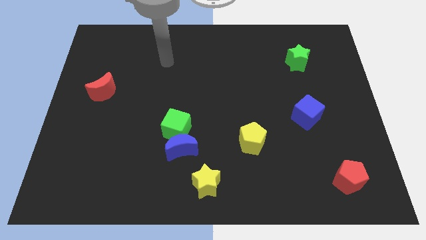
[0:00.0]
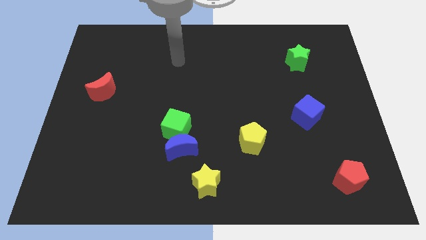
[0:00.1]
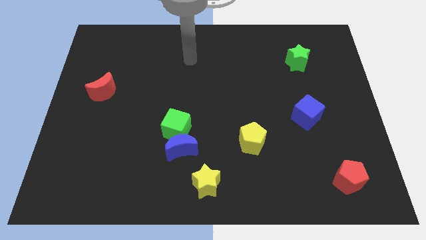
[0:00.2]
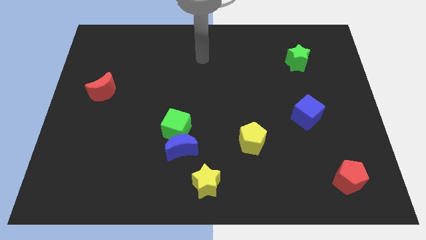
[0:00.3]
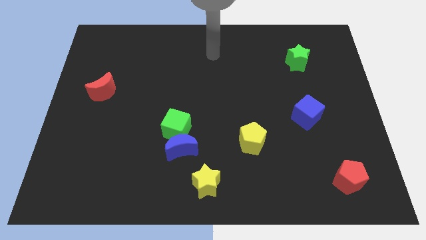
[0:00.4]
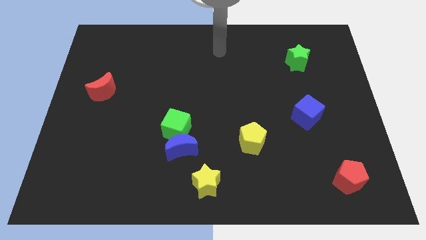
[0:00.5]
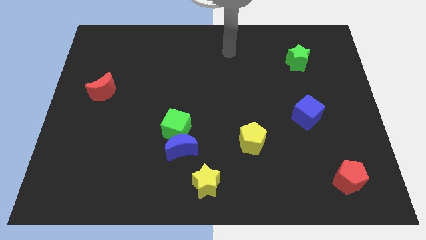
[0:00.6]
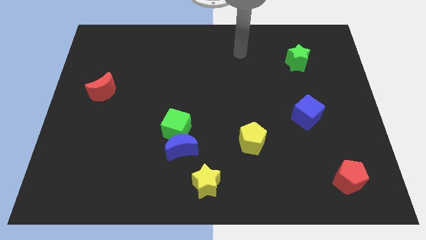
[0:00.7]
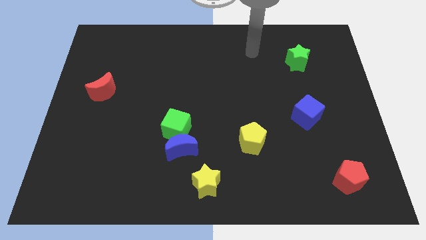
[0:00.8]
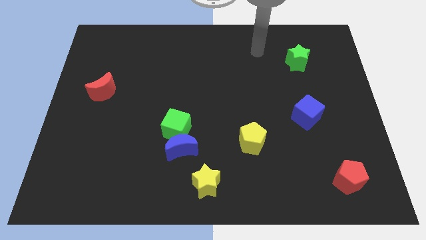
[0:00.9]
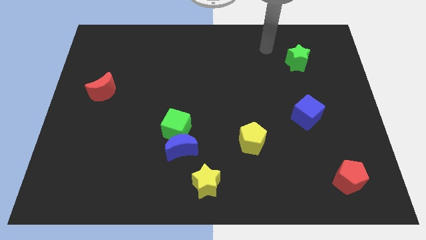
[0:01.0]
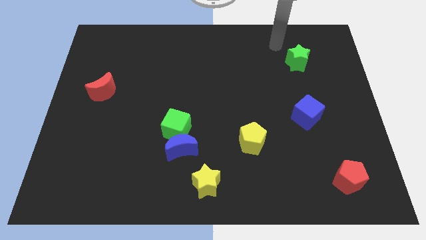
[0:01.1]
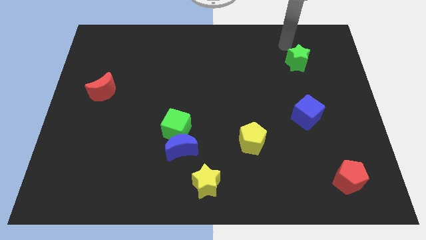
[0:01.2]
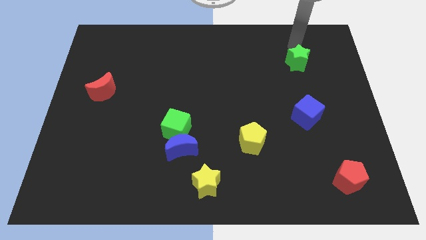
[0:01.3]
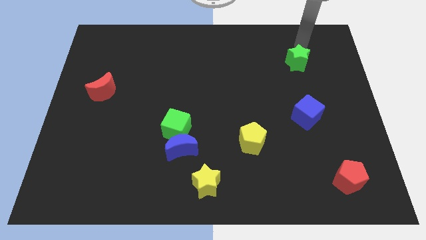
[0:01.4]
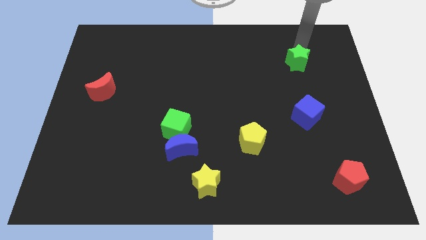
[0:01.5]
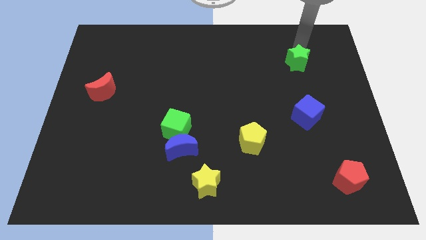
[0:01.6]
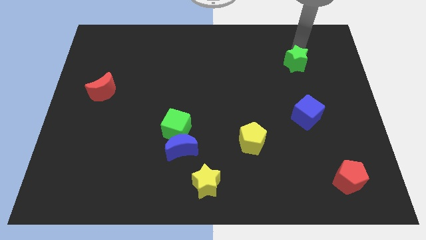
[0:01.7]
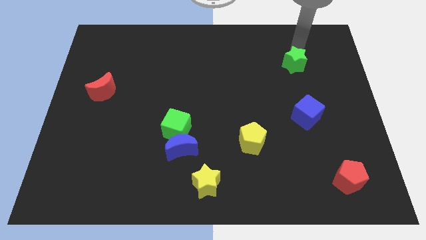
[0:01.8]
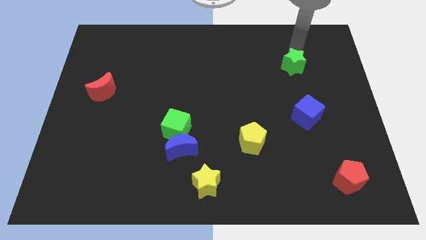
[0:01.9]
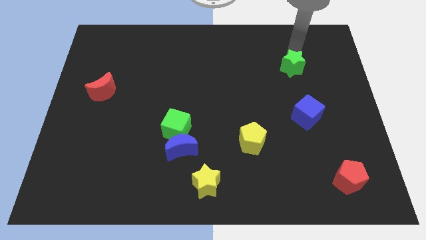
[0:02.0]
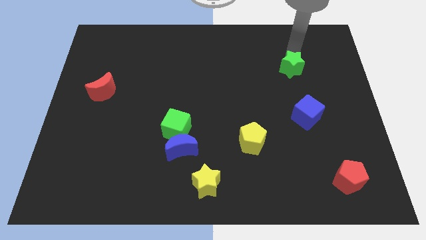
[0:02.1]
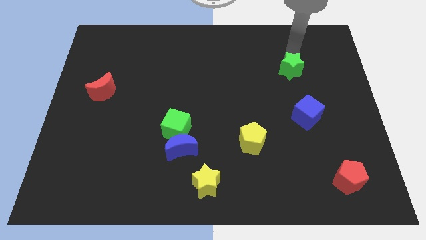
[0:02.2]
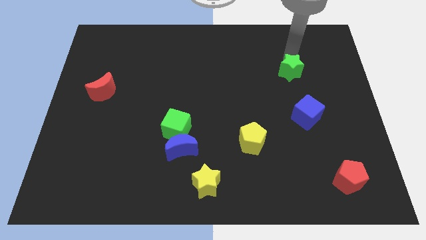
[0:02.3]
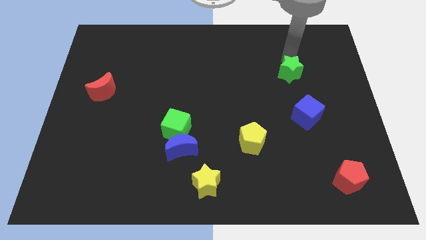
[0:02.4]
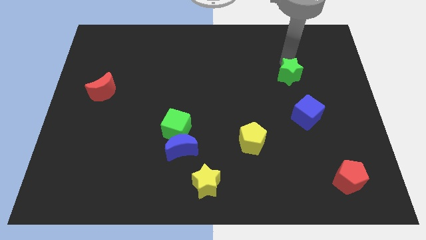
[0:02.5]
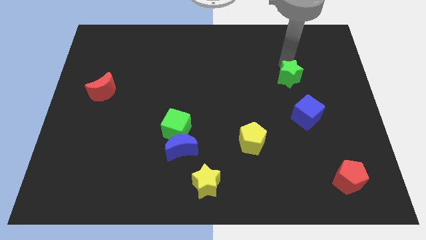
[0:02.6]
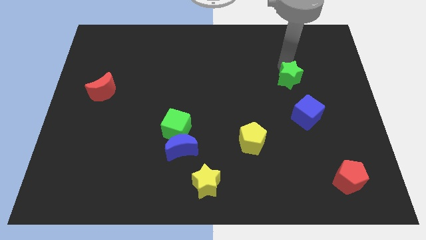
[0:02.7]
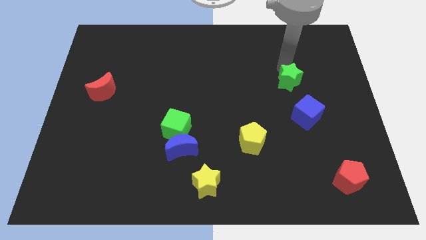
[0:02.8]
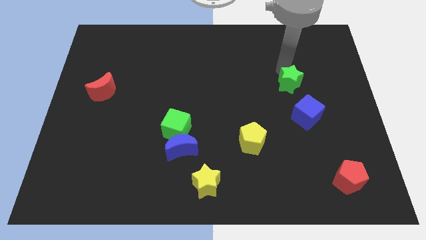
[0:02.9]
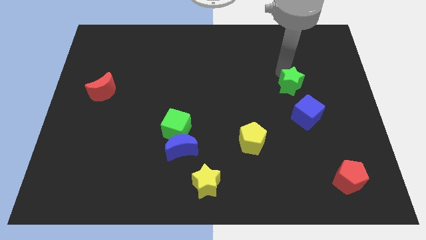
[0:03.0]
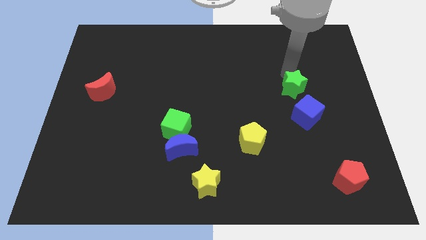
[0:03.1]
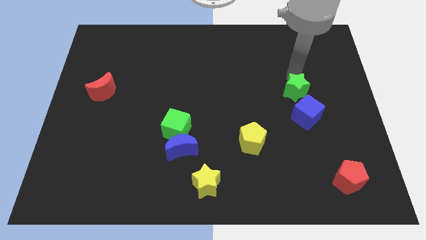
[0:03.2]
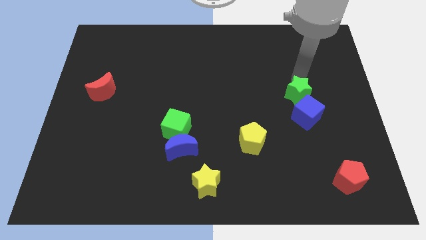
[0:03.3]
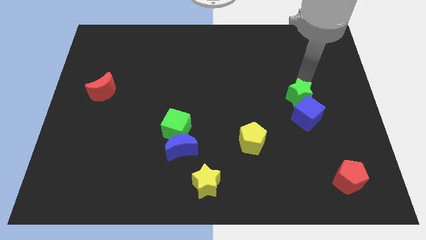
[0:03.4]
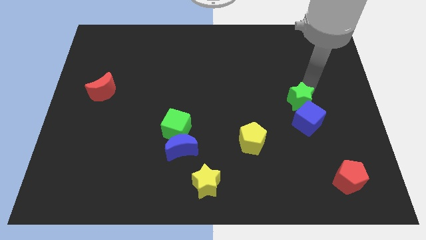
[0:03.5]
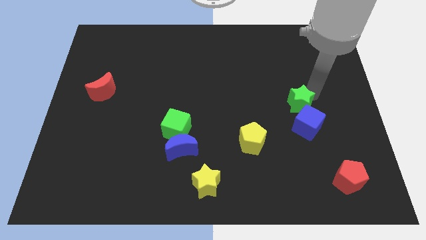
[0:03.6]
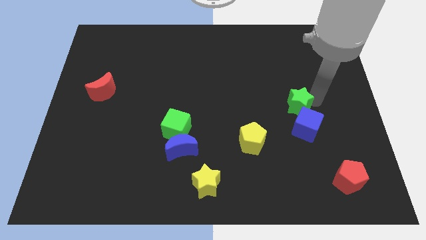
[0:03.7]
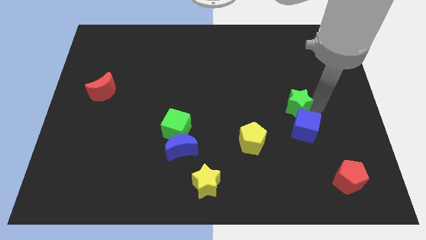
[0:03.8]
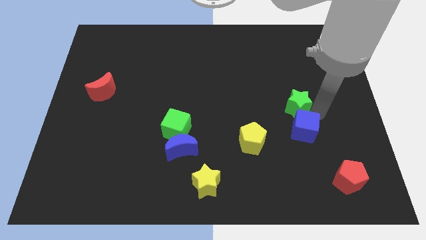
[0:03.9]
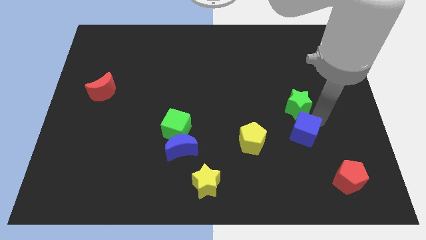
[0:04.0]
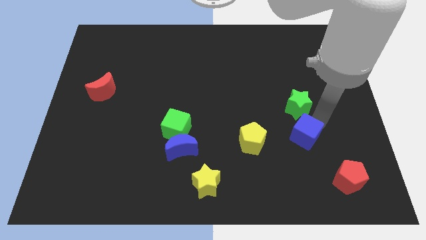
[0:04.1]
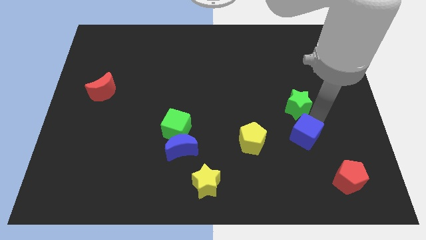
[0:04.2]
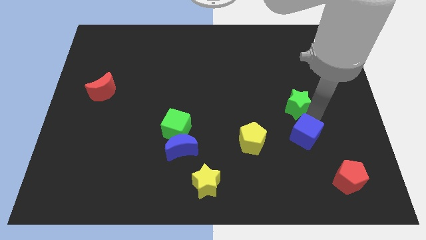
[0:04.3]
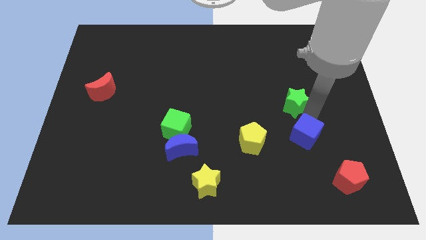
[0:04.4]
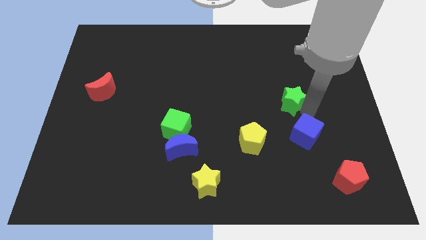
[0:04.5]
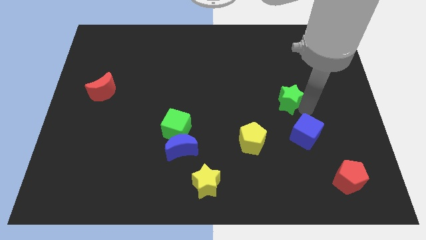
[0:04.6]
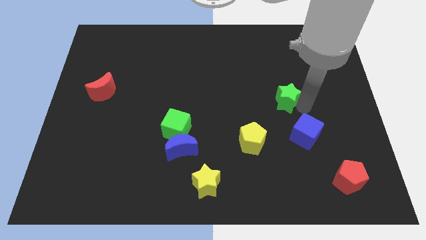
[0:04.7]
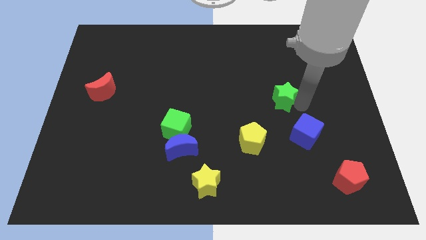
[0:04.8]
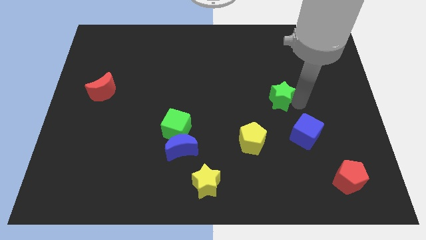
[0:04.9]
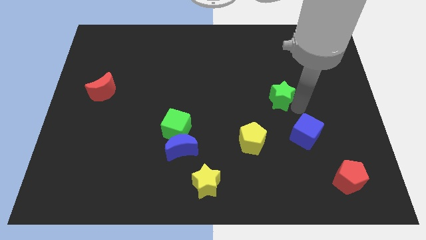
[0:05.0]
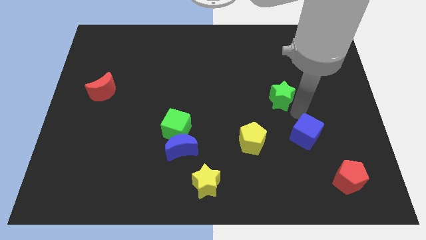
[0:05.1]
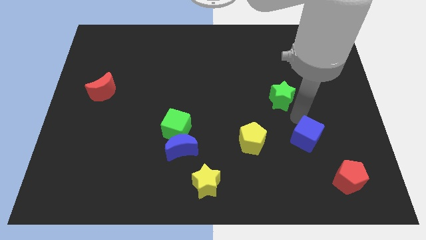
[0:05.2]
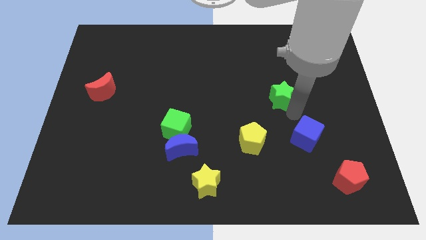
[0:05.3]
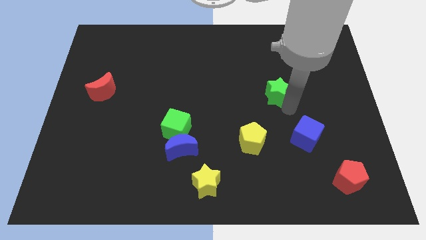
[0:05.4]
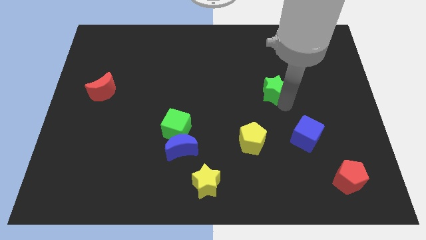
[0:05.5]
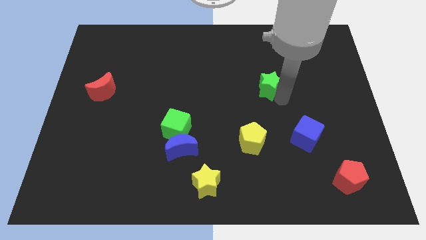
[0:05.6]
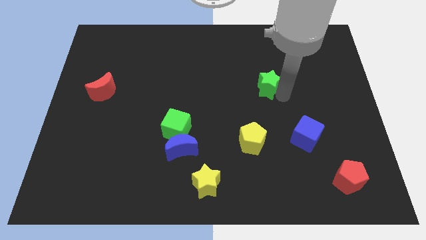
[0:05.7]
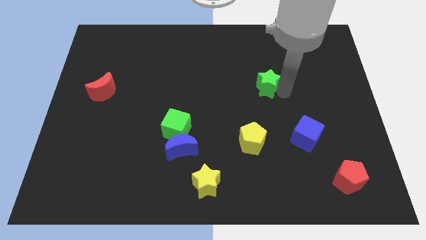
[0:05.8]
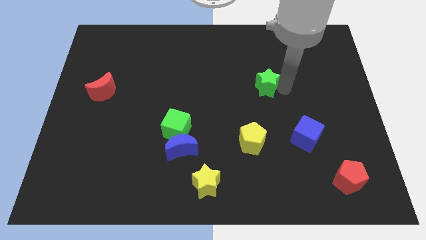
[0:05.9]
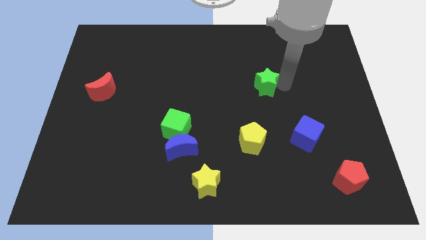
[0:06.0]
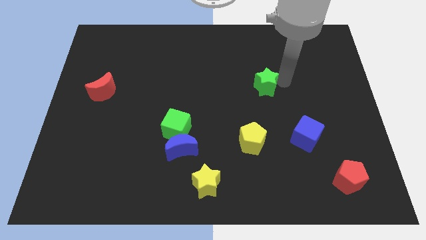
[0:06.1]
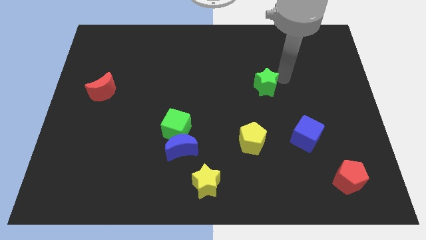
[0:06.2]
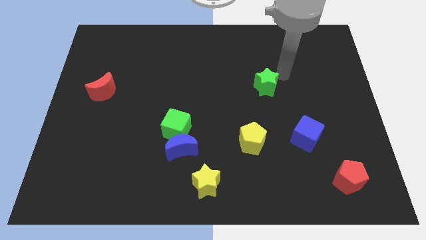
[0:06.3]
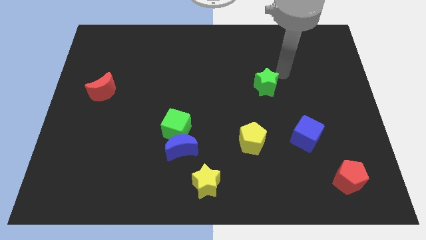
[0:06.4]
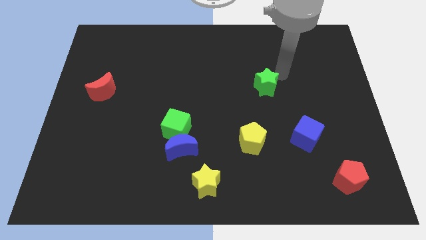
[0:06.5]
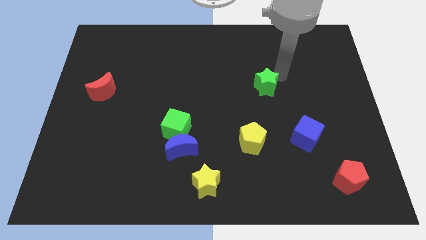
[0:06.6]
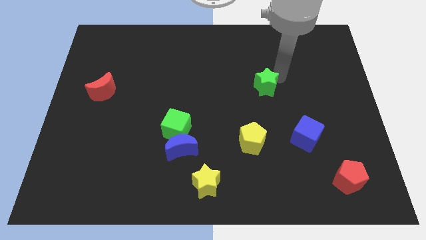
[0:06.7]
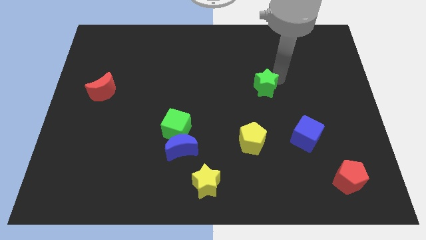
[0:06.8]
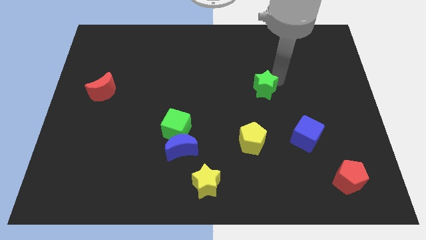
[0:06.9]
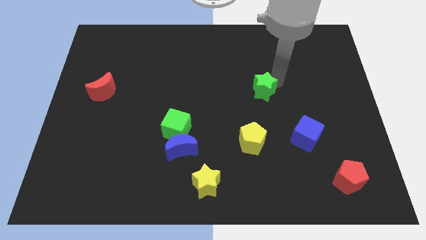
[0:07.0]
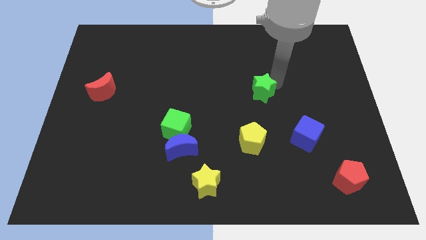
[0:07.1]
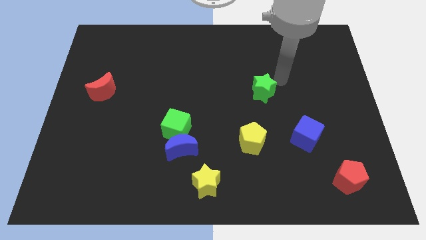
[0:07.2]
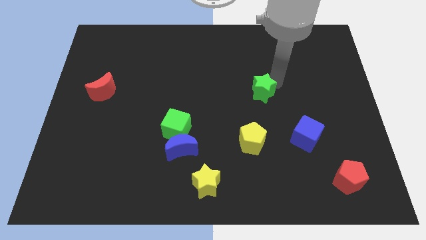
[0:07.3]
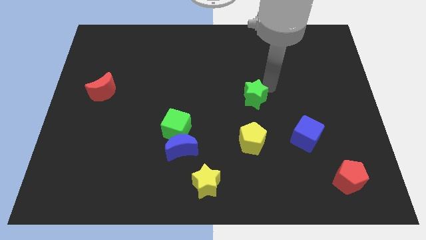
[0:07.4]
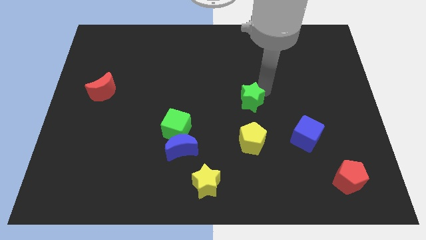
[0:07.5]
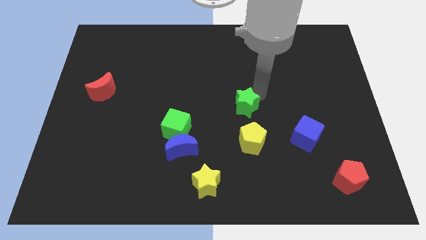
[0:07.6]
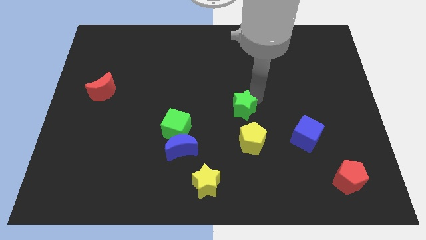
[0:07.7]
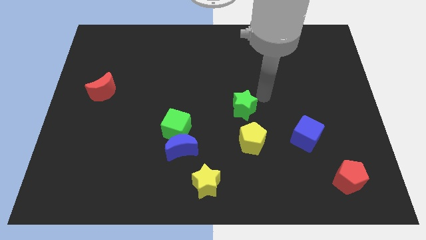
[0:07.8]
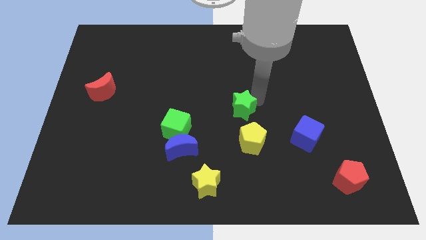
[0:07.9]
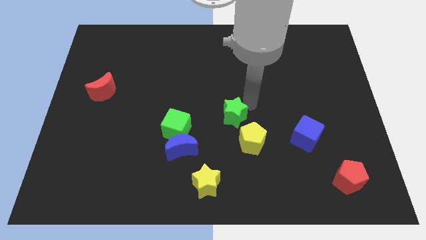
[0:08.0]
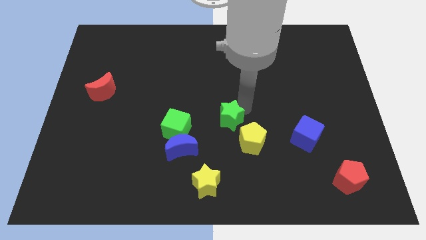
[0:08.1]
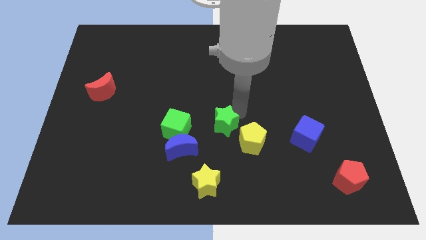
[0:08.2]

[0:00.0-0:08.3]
put the green star to the top right side of the blue moon
